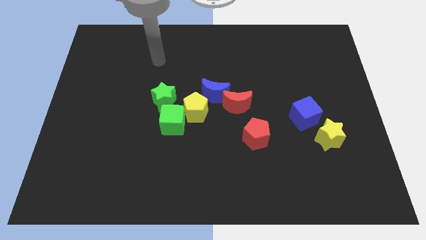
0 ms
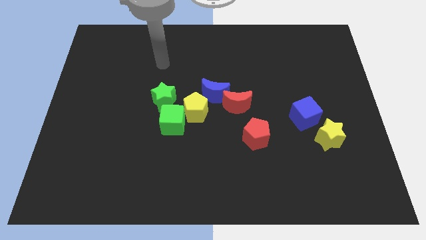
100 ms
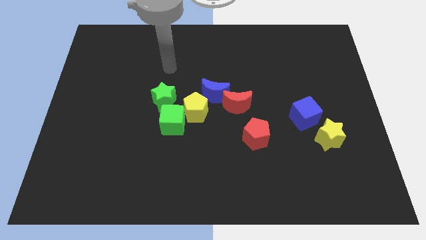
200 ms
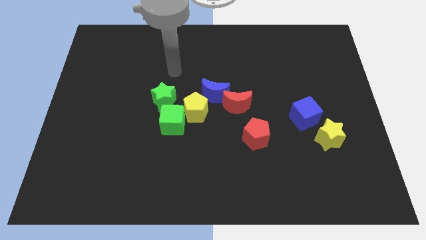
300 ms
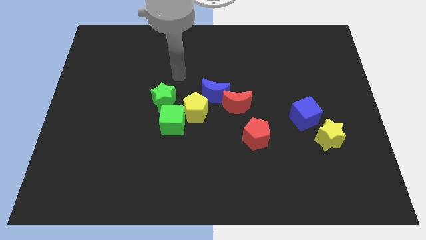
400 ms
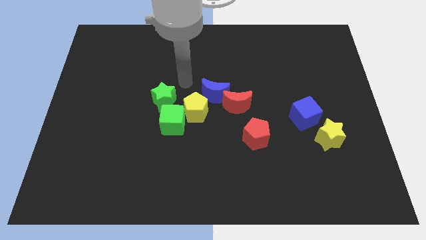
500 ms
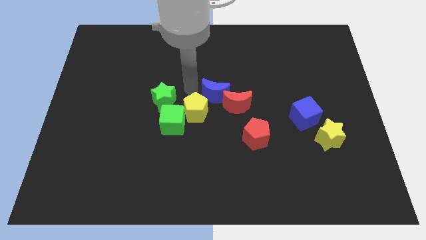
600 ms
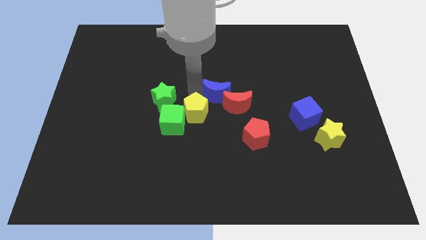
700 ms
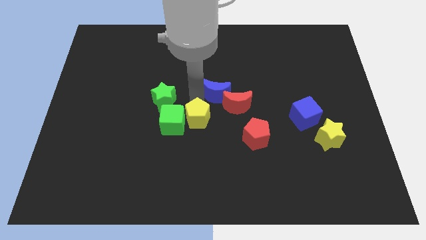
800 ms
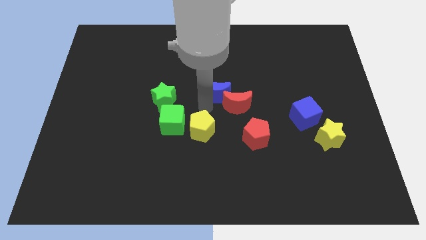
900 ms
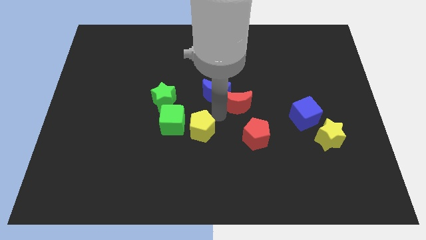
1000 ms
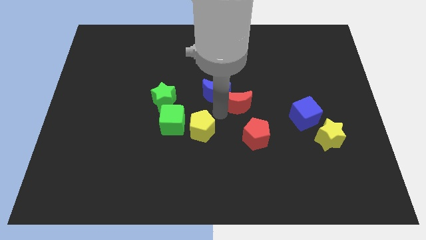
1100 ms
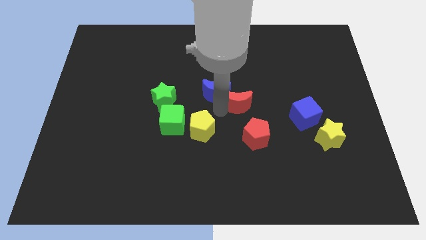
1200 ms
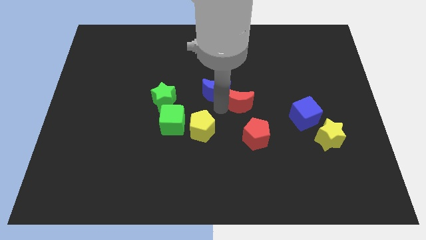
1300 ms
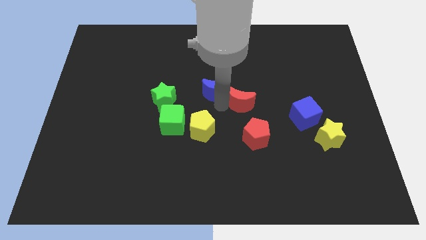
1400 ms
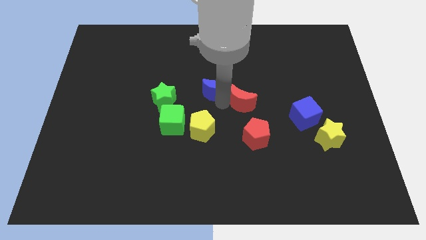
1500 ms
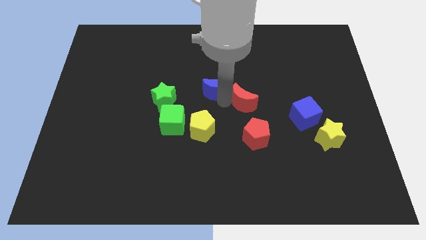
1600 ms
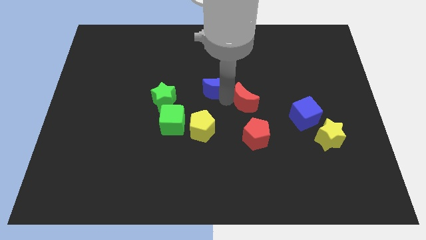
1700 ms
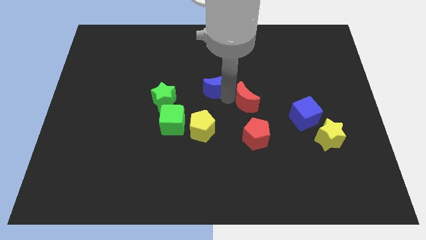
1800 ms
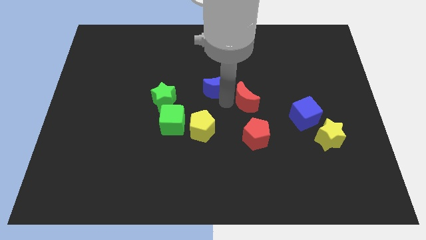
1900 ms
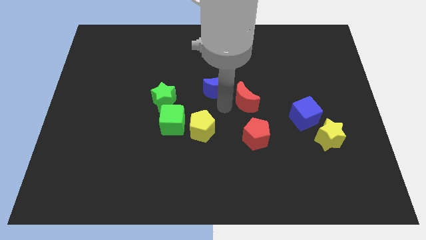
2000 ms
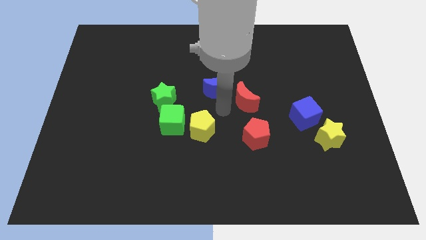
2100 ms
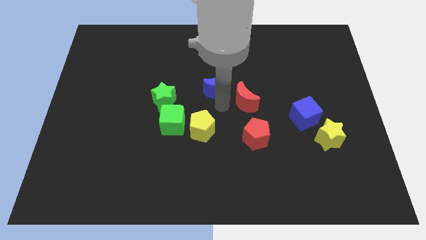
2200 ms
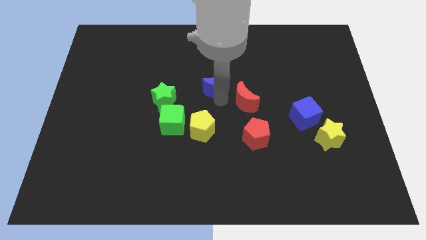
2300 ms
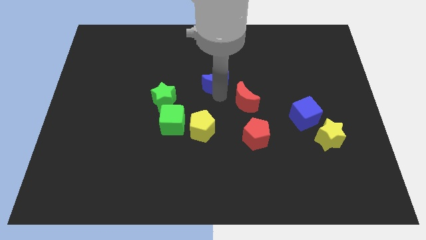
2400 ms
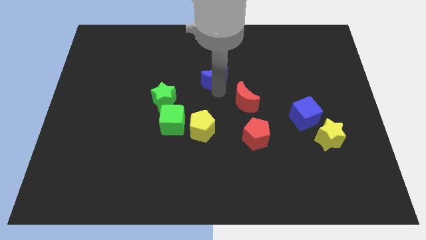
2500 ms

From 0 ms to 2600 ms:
pull the blue moon apart from the red moon and yellow pentagon

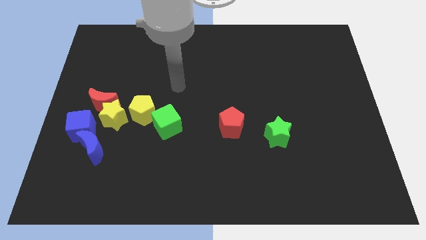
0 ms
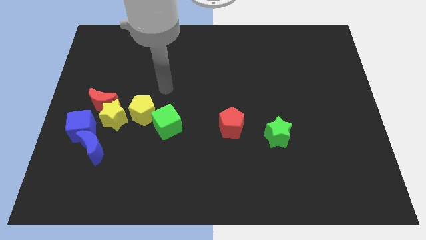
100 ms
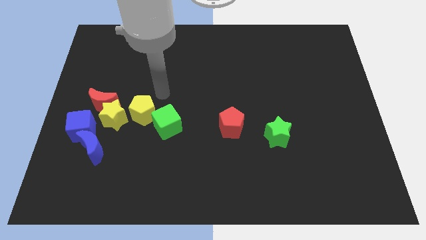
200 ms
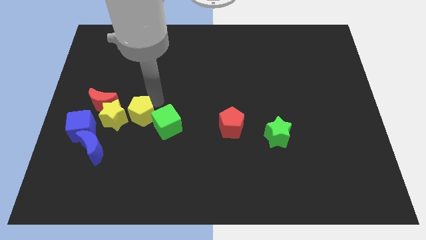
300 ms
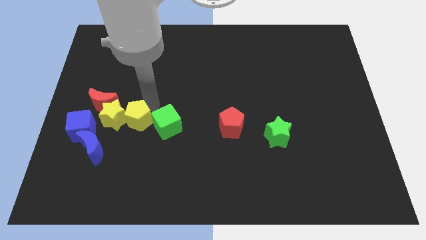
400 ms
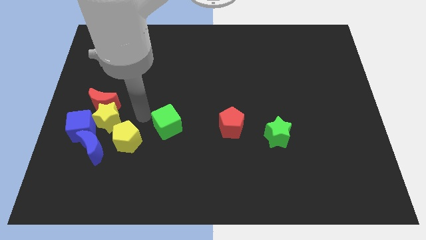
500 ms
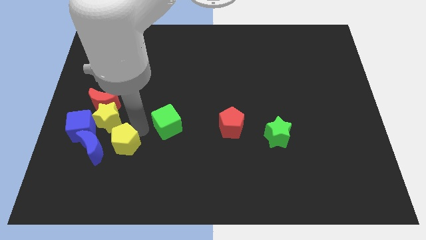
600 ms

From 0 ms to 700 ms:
separate the green cube from the yellow pentagon

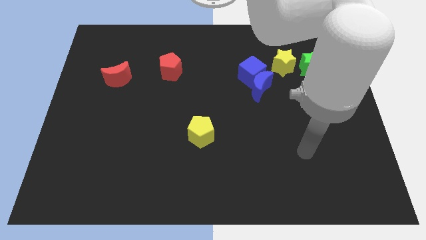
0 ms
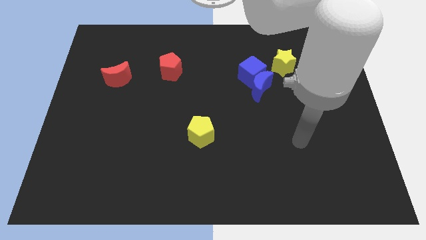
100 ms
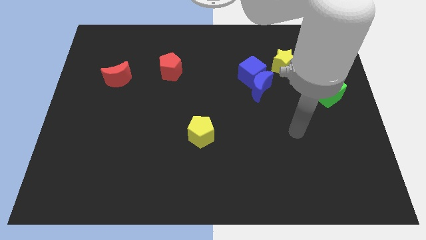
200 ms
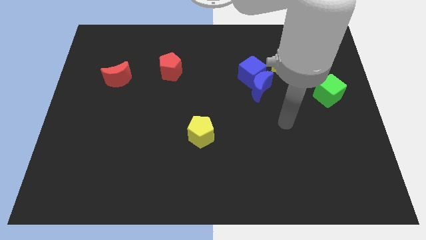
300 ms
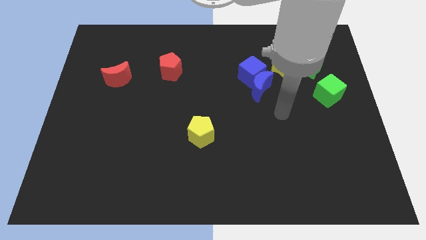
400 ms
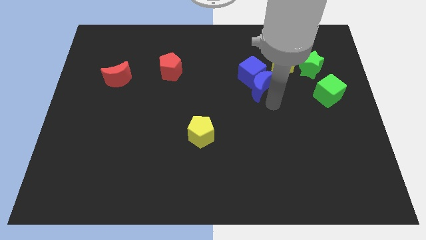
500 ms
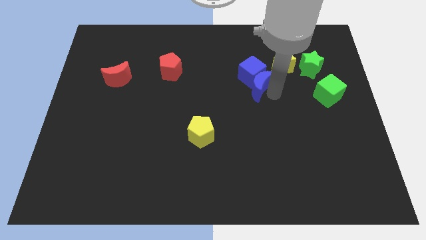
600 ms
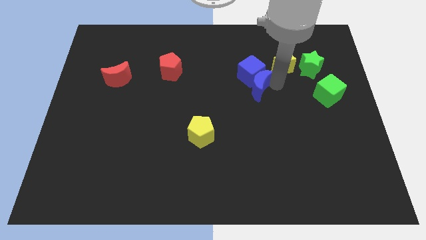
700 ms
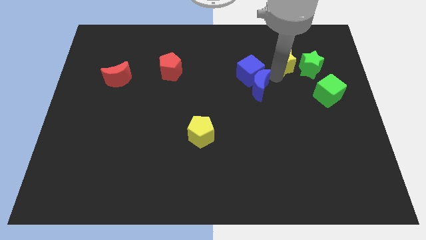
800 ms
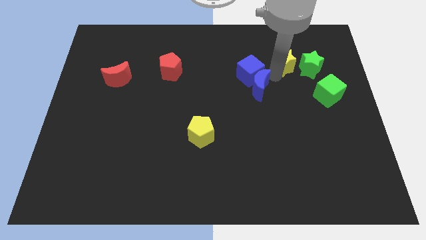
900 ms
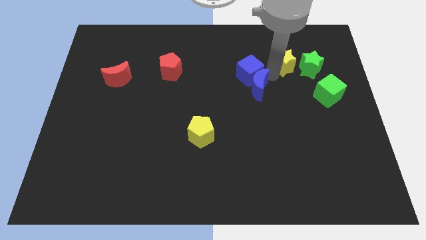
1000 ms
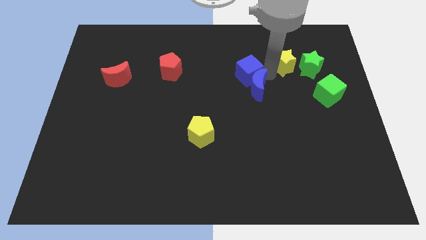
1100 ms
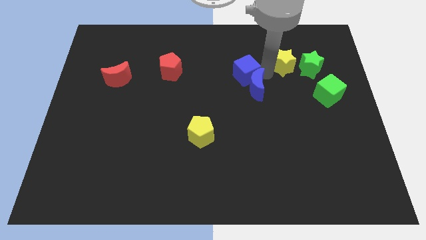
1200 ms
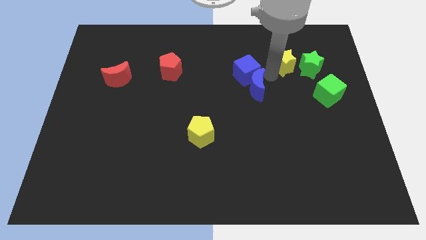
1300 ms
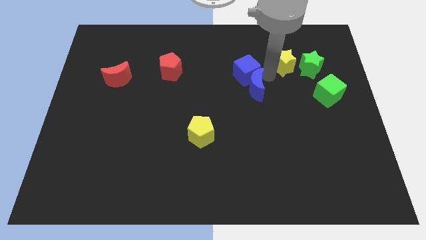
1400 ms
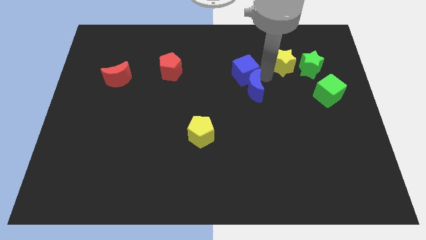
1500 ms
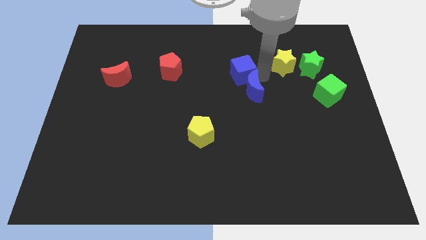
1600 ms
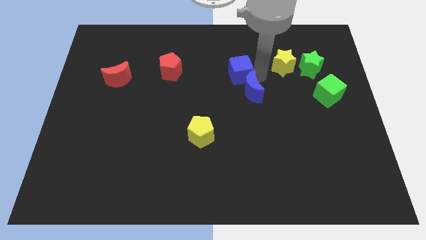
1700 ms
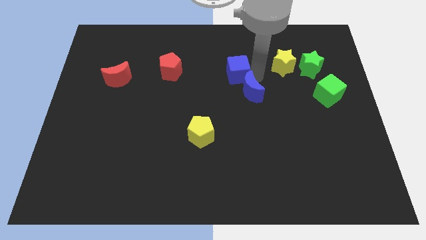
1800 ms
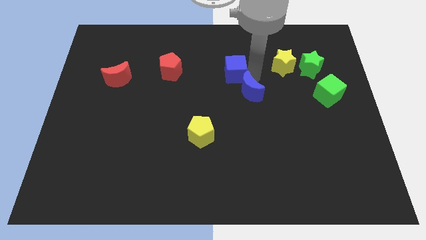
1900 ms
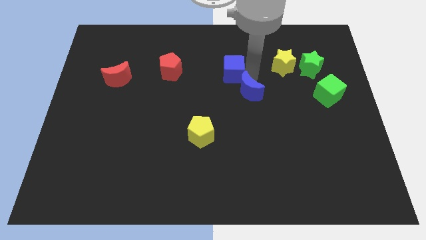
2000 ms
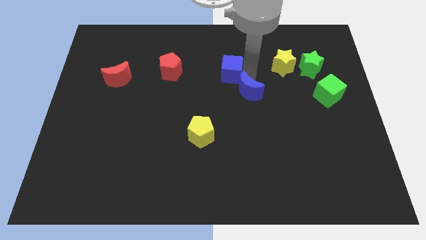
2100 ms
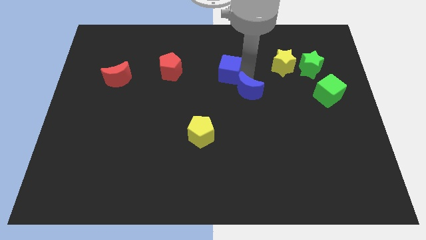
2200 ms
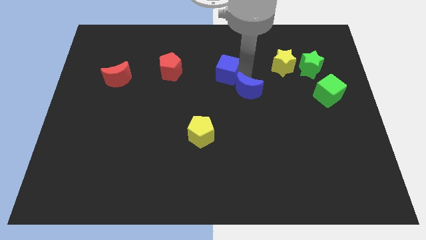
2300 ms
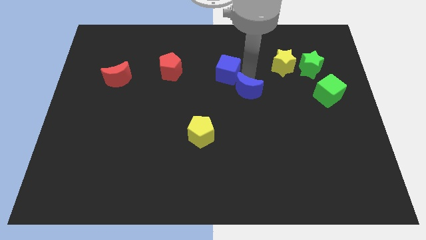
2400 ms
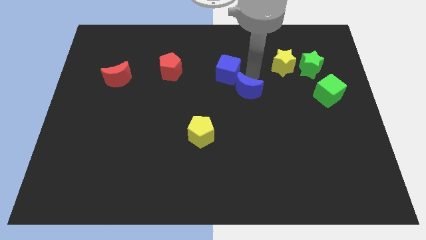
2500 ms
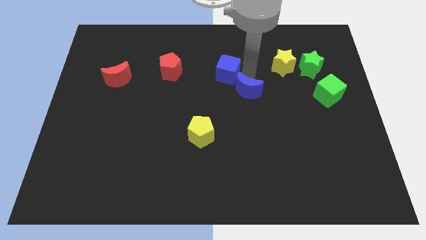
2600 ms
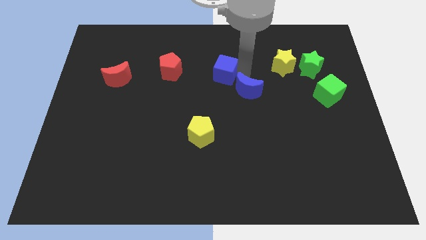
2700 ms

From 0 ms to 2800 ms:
move the blue cube away from the blue moon and yellow star

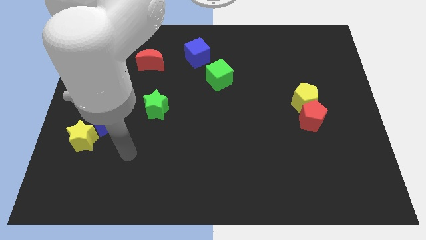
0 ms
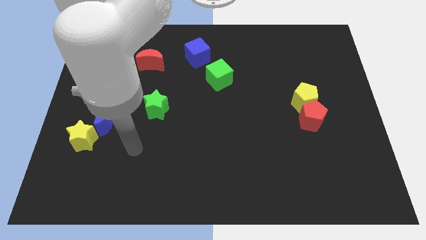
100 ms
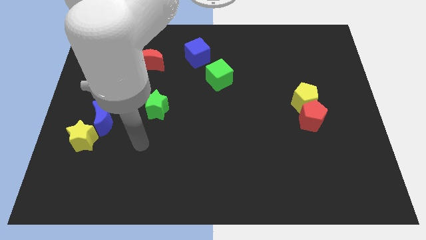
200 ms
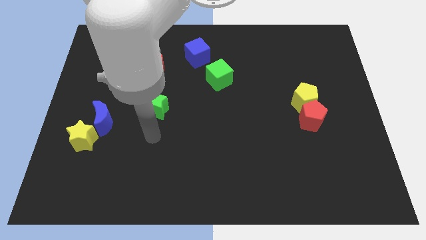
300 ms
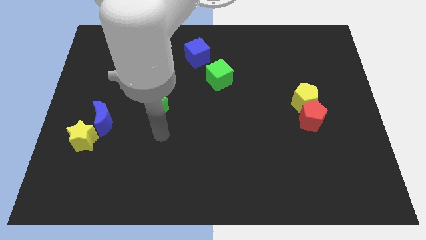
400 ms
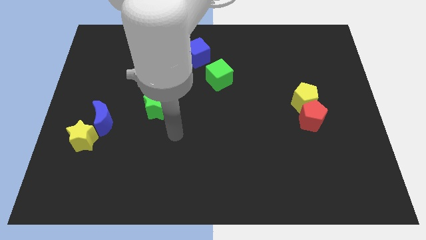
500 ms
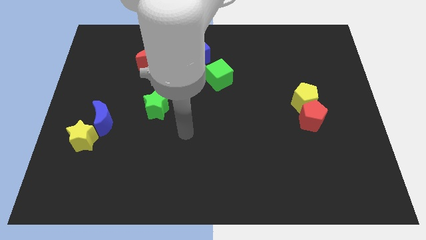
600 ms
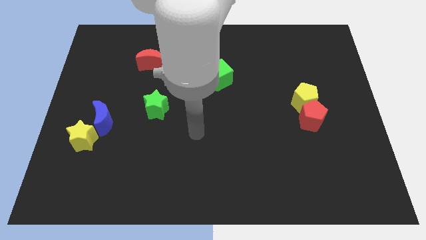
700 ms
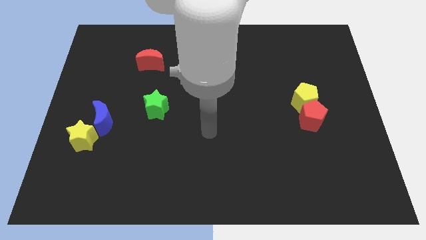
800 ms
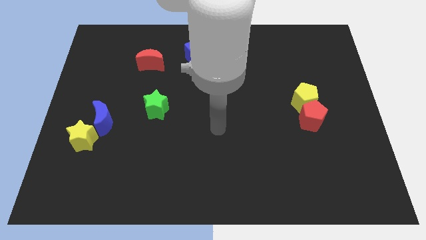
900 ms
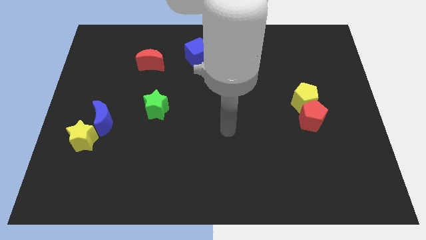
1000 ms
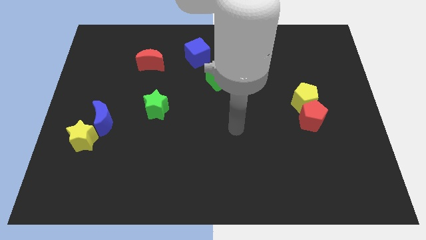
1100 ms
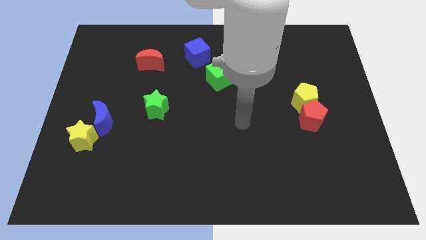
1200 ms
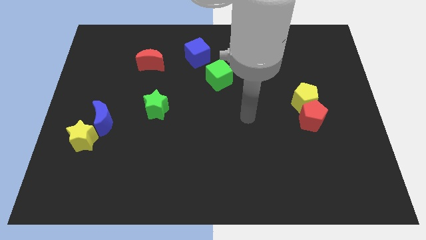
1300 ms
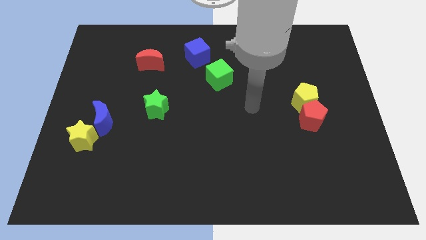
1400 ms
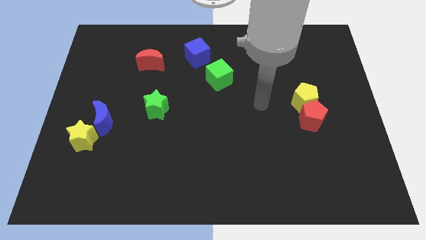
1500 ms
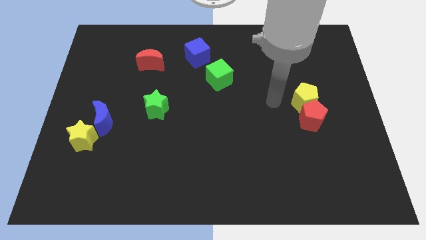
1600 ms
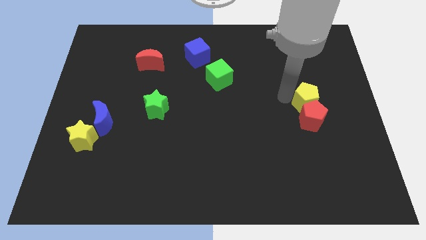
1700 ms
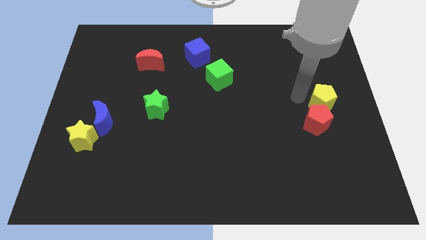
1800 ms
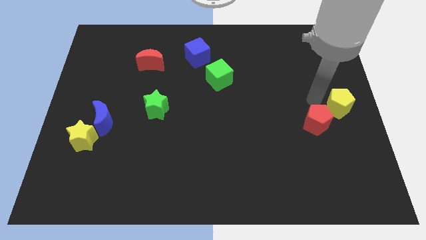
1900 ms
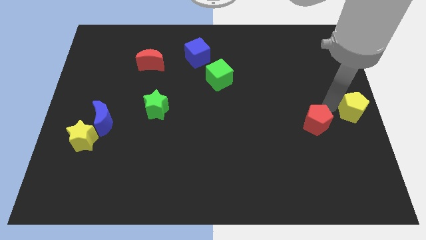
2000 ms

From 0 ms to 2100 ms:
pull the red pentagon apart from the yellow pentagon

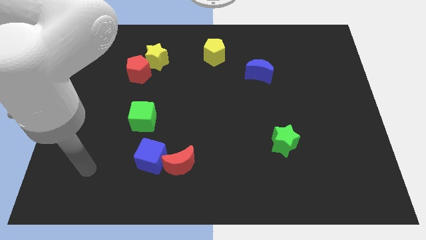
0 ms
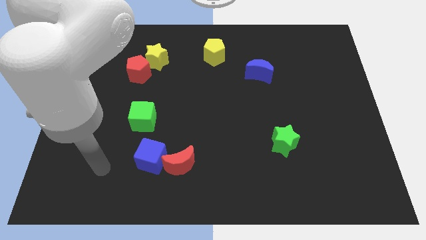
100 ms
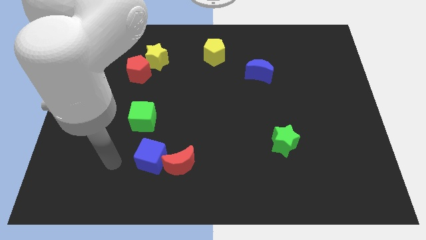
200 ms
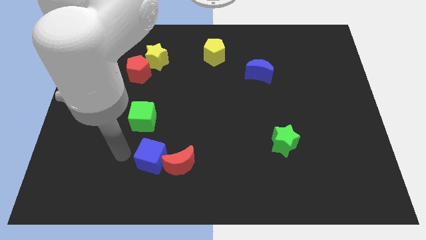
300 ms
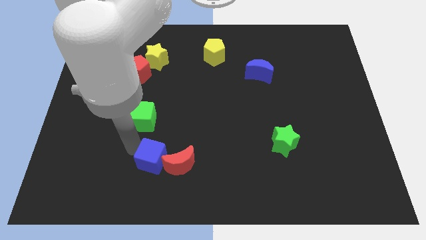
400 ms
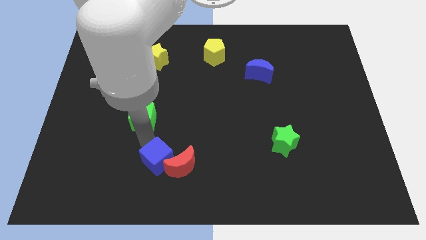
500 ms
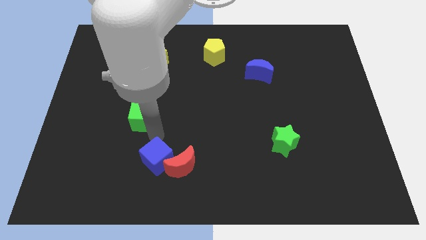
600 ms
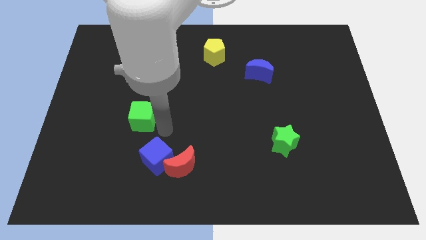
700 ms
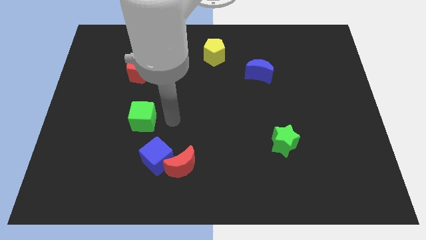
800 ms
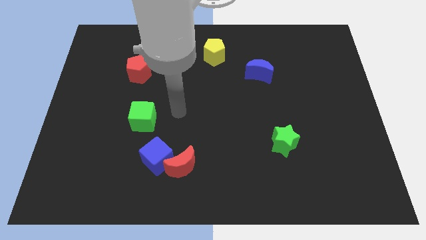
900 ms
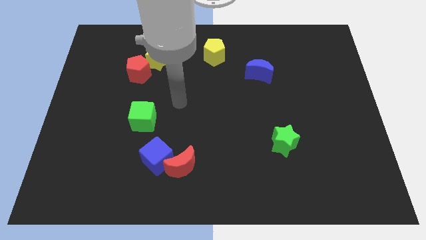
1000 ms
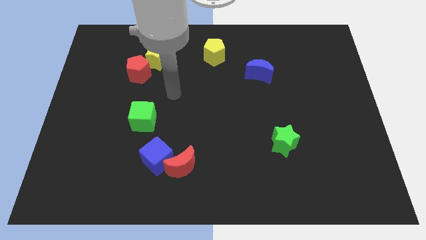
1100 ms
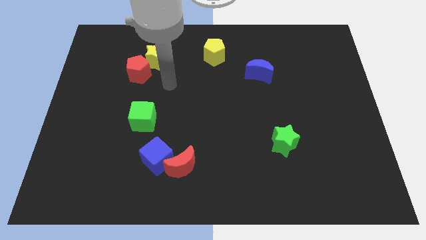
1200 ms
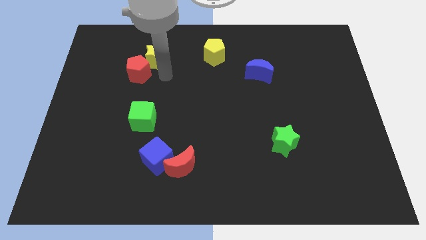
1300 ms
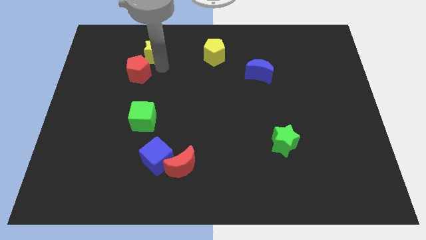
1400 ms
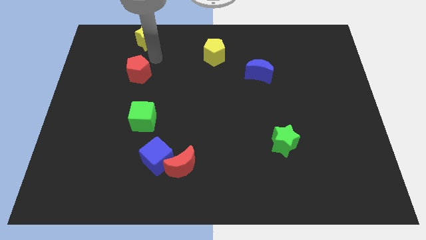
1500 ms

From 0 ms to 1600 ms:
separate the red pentagon from the yellow star
